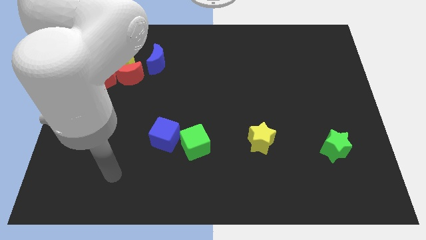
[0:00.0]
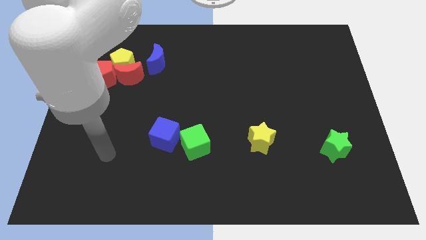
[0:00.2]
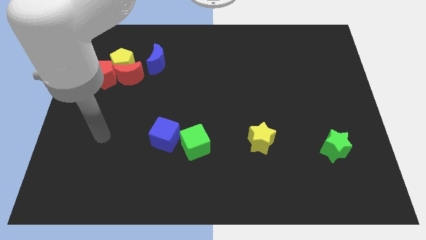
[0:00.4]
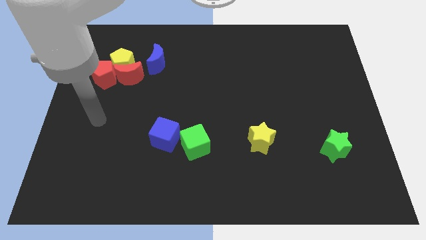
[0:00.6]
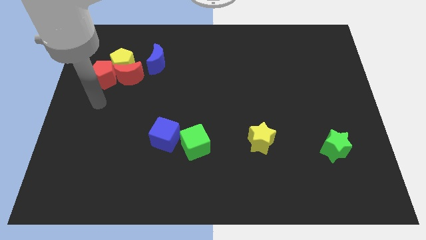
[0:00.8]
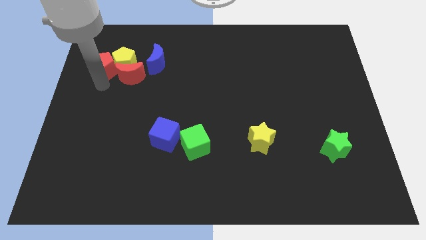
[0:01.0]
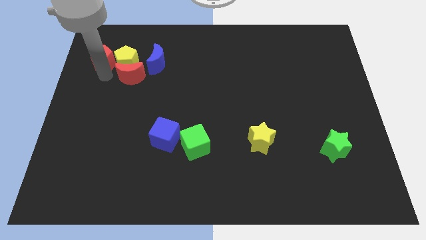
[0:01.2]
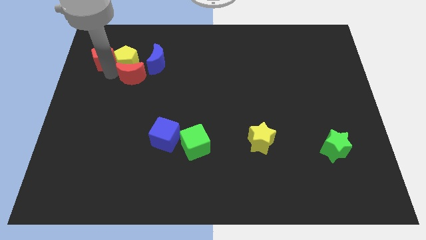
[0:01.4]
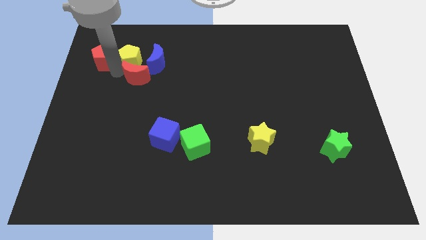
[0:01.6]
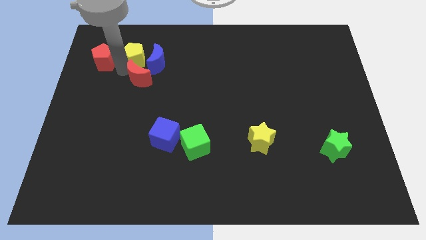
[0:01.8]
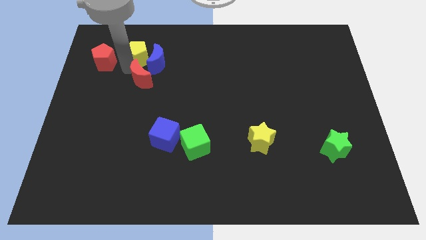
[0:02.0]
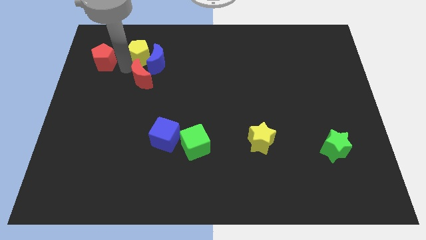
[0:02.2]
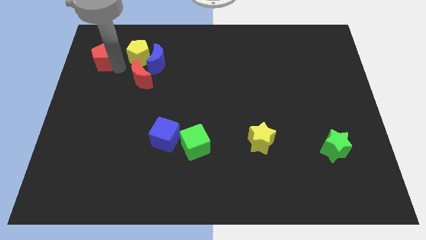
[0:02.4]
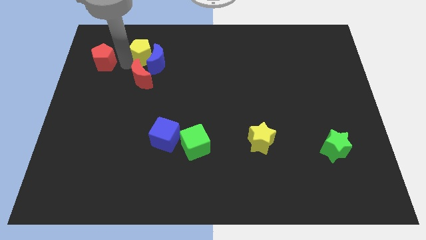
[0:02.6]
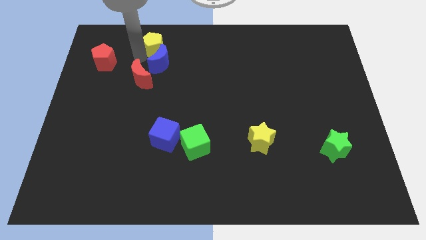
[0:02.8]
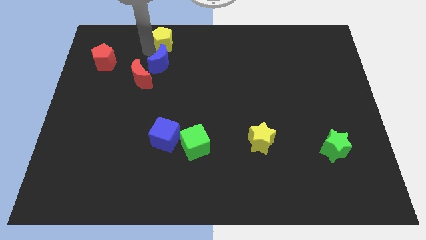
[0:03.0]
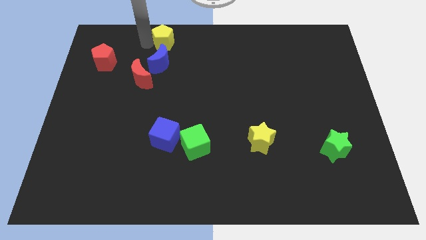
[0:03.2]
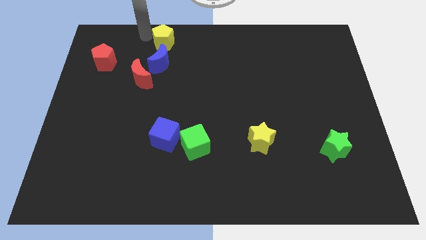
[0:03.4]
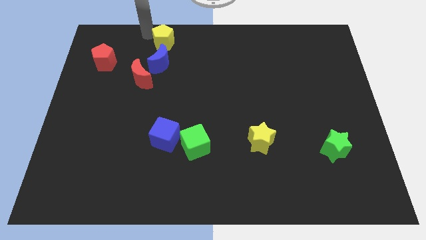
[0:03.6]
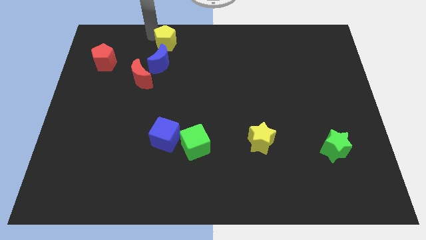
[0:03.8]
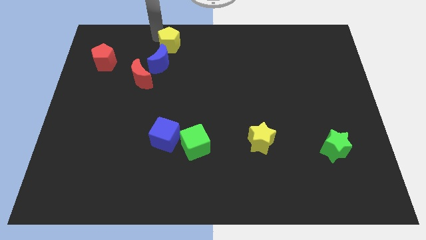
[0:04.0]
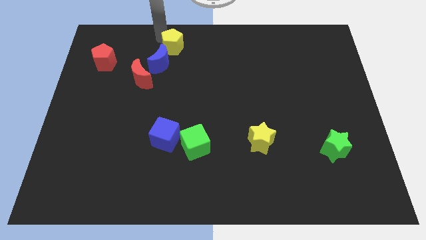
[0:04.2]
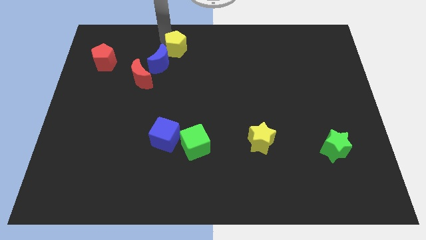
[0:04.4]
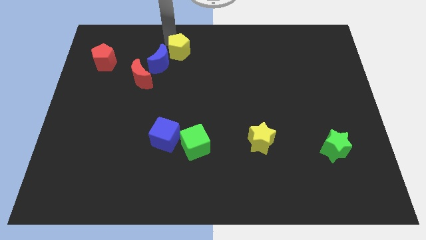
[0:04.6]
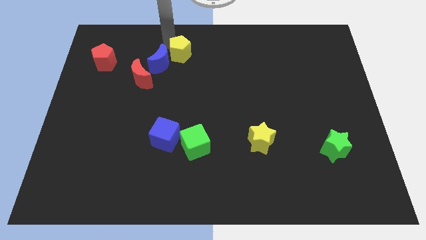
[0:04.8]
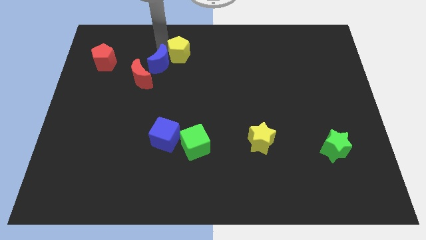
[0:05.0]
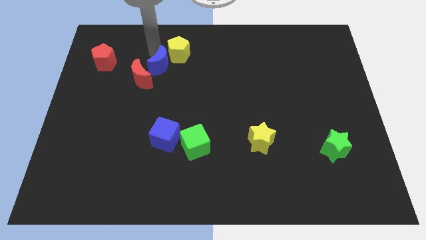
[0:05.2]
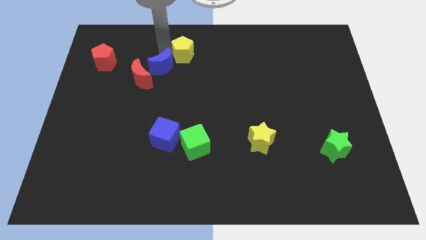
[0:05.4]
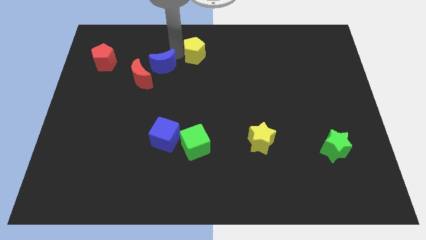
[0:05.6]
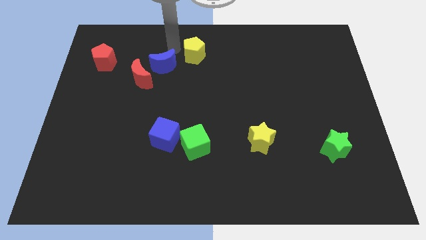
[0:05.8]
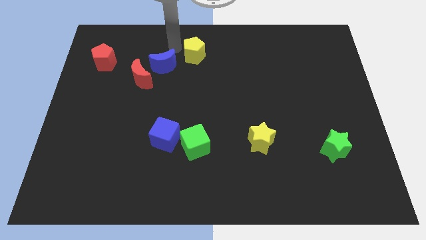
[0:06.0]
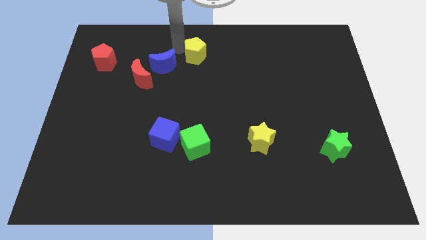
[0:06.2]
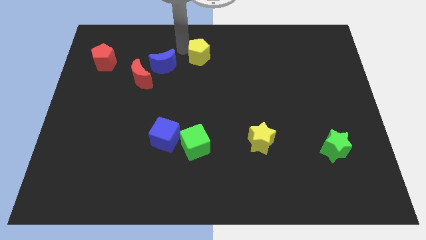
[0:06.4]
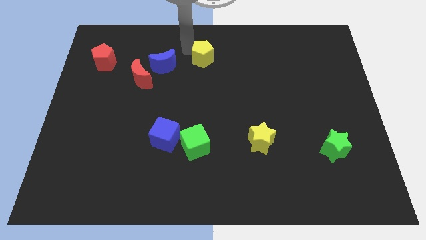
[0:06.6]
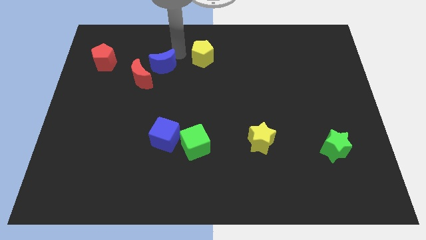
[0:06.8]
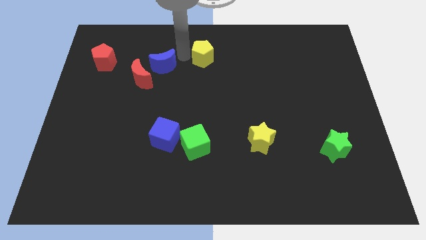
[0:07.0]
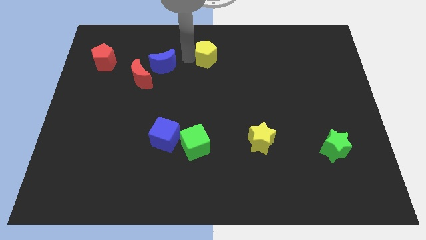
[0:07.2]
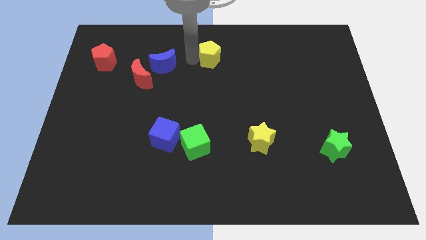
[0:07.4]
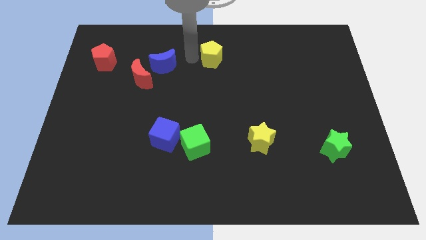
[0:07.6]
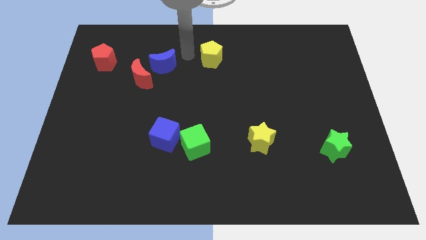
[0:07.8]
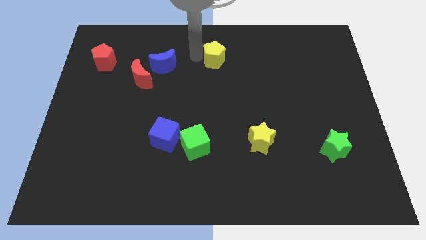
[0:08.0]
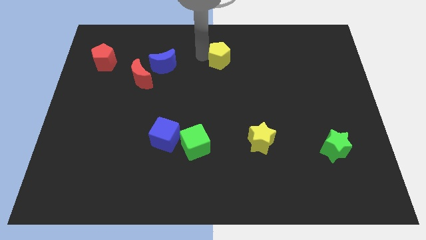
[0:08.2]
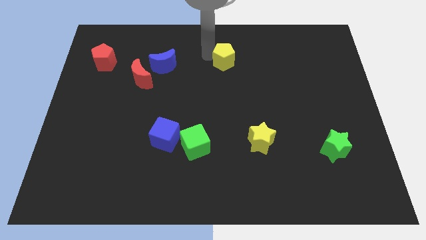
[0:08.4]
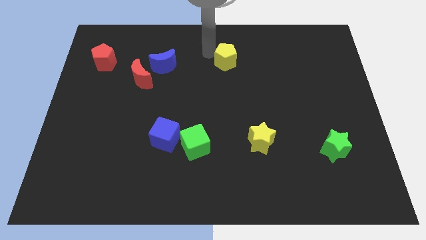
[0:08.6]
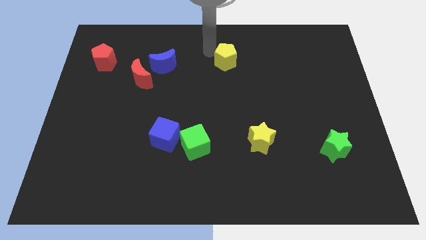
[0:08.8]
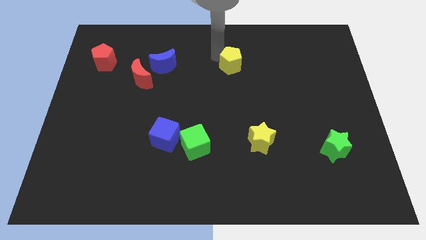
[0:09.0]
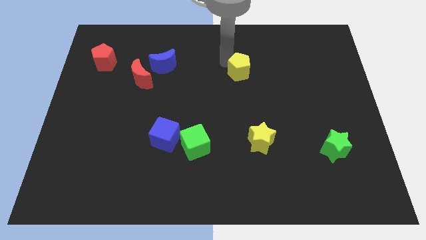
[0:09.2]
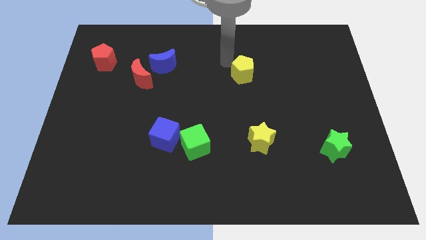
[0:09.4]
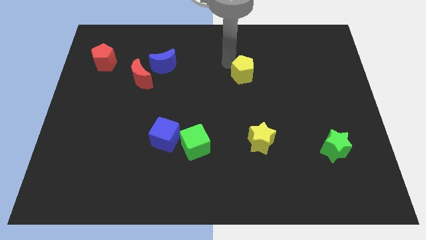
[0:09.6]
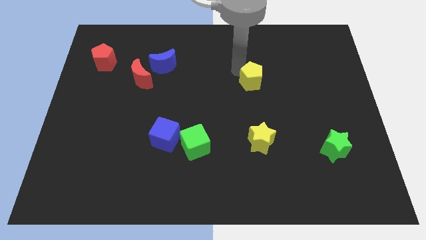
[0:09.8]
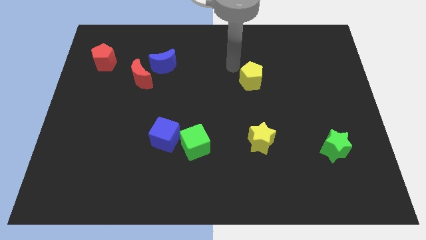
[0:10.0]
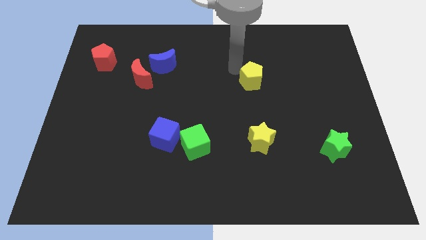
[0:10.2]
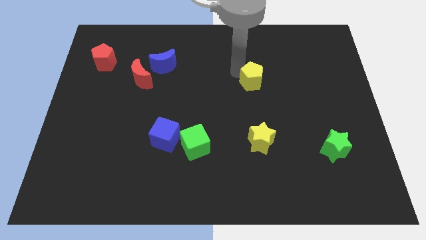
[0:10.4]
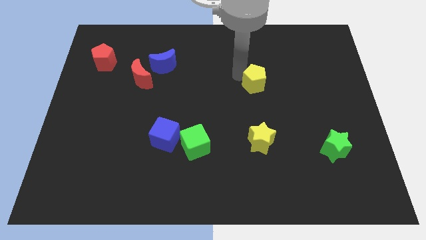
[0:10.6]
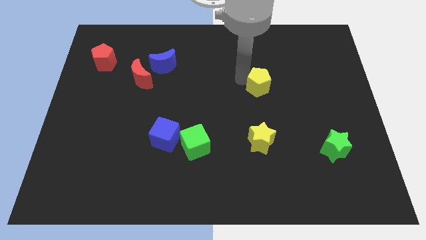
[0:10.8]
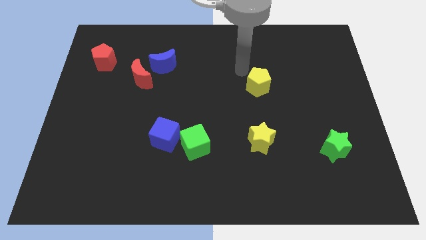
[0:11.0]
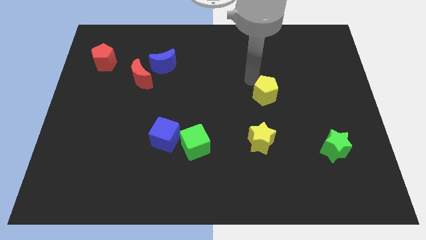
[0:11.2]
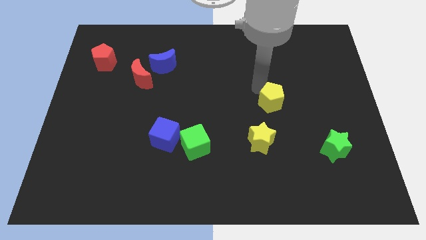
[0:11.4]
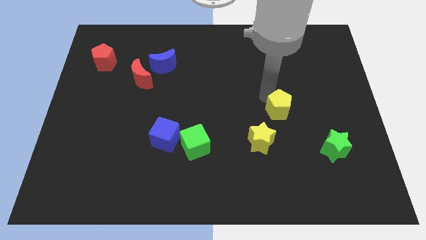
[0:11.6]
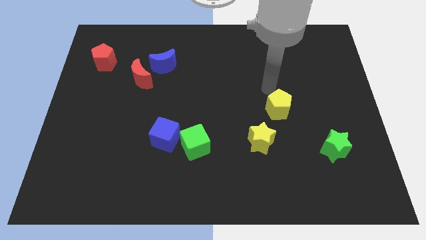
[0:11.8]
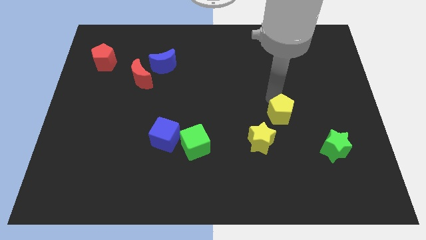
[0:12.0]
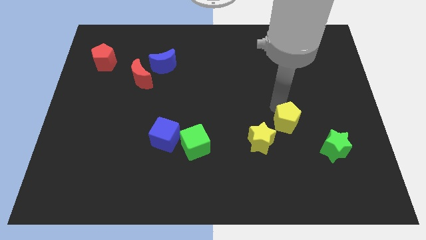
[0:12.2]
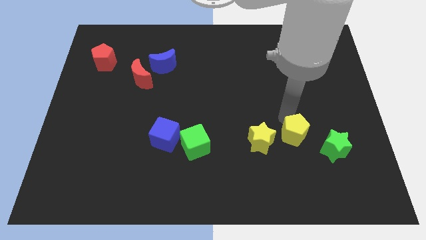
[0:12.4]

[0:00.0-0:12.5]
move the yellow pentagon just left of the green star

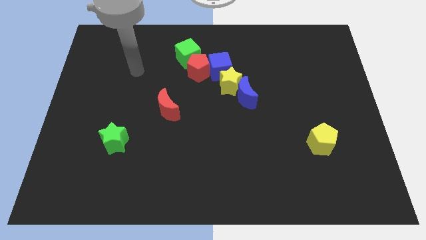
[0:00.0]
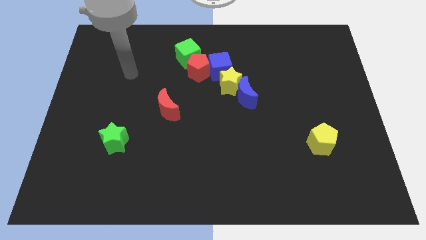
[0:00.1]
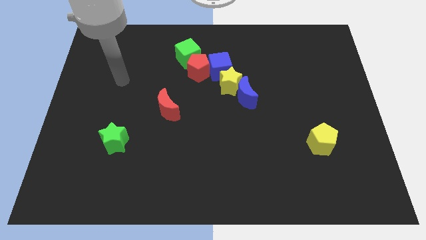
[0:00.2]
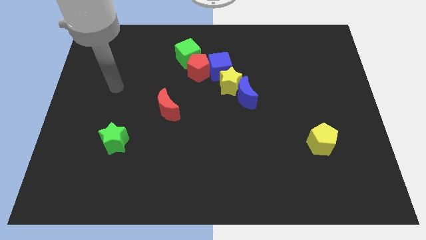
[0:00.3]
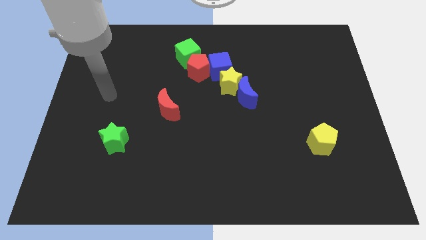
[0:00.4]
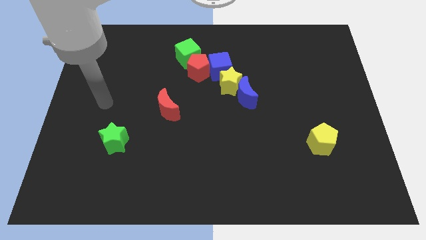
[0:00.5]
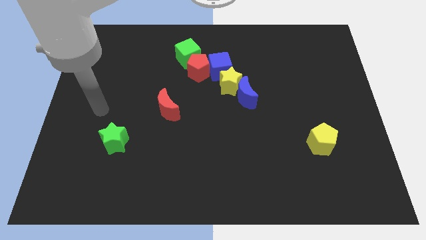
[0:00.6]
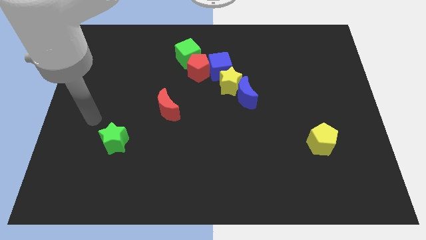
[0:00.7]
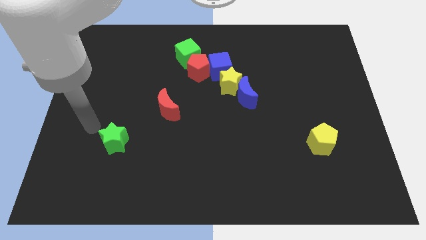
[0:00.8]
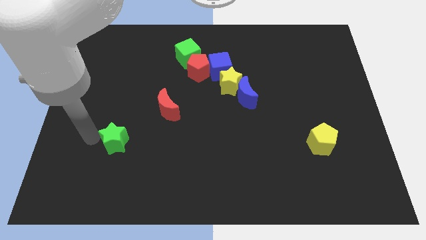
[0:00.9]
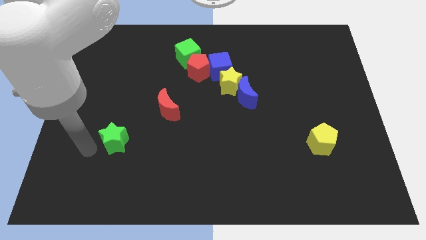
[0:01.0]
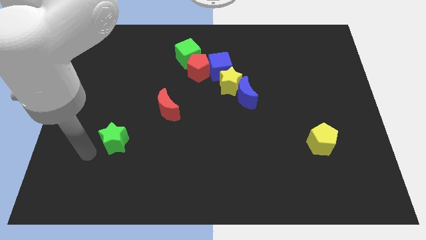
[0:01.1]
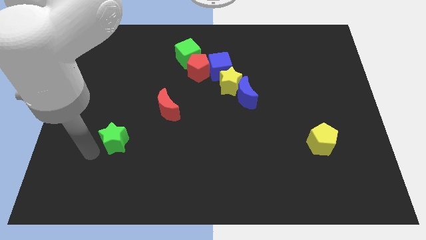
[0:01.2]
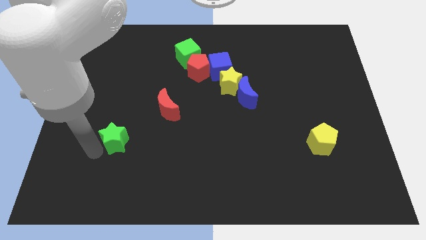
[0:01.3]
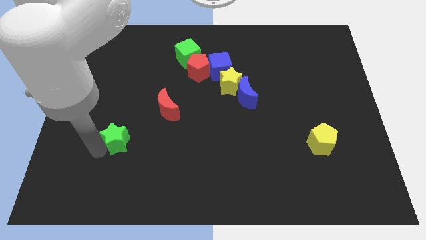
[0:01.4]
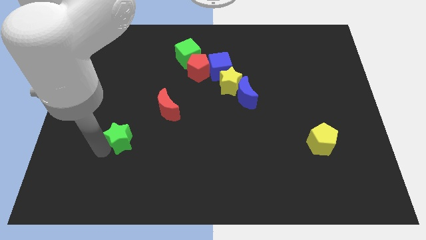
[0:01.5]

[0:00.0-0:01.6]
put the green star diagonally down and to the left of the red moon
